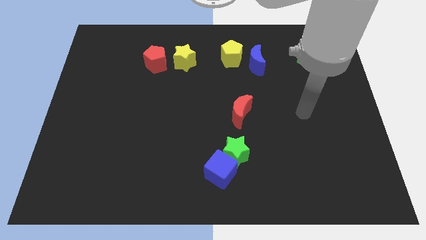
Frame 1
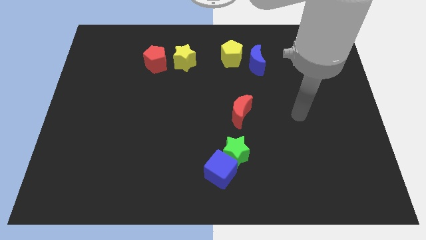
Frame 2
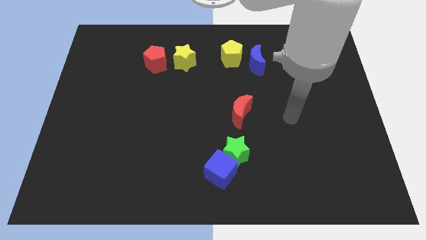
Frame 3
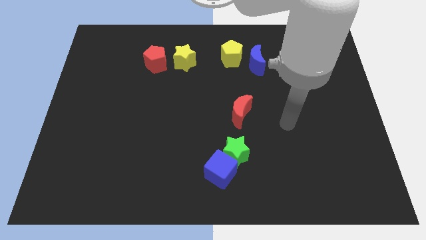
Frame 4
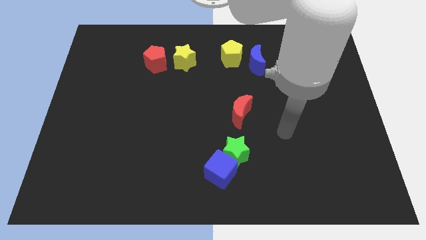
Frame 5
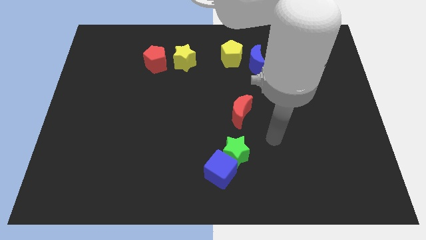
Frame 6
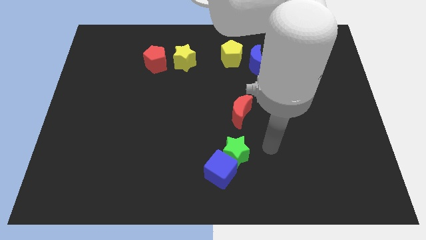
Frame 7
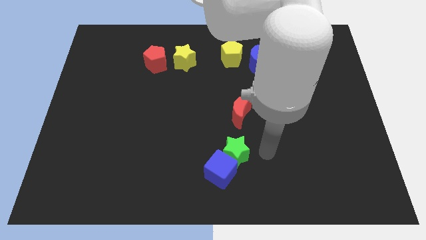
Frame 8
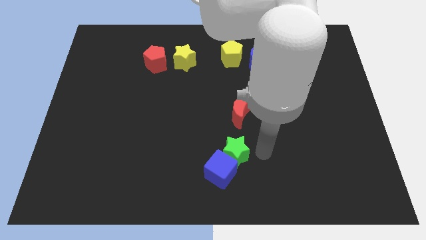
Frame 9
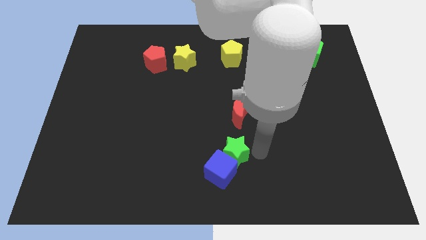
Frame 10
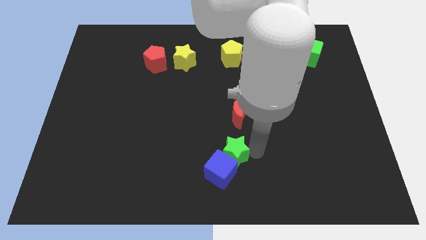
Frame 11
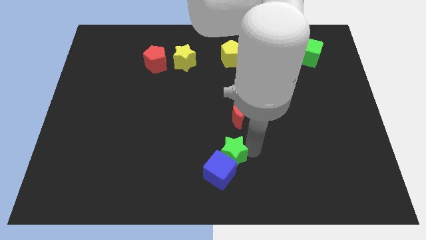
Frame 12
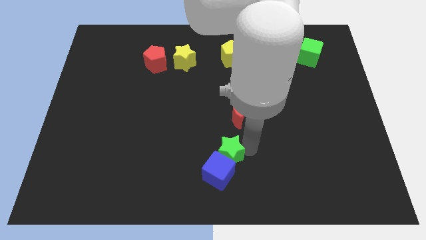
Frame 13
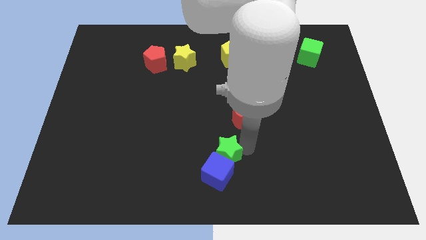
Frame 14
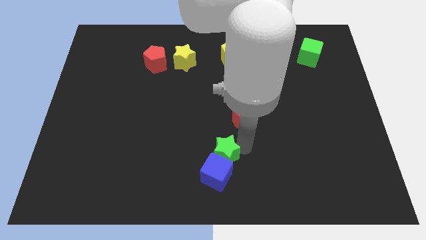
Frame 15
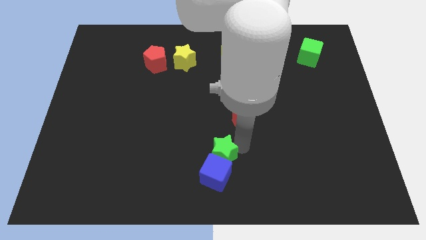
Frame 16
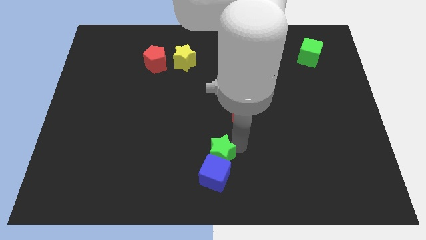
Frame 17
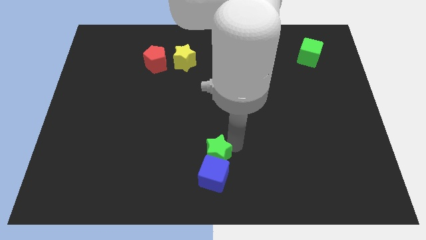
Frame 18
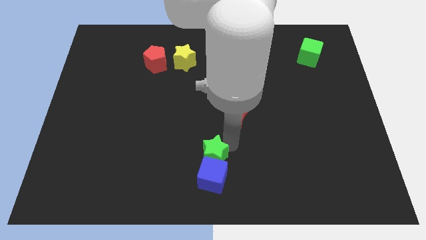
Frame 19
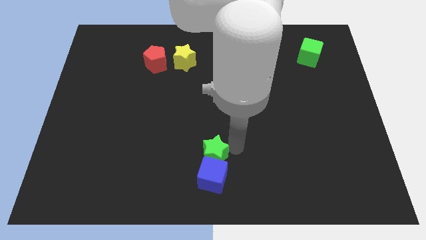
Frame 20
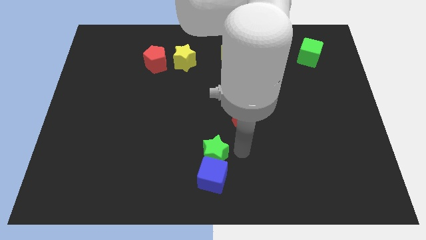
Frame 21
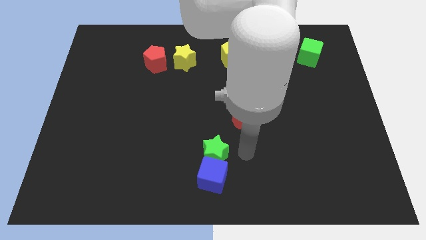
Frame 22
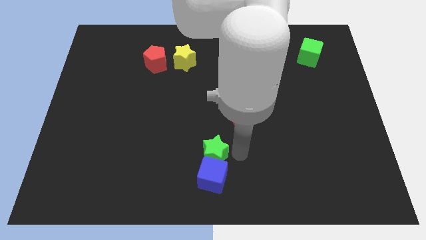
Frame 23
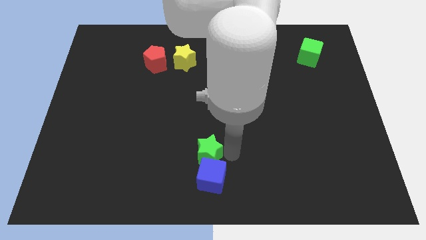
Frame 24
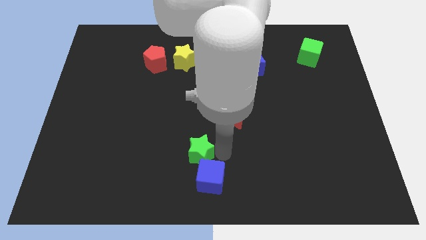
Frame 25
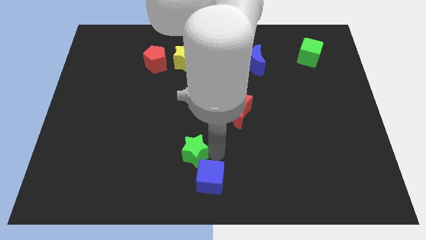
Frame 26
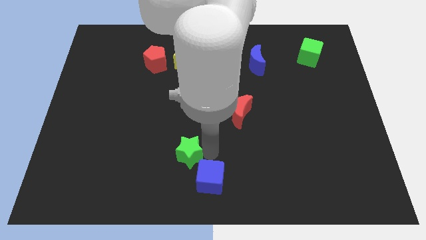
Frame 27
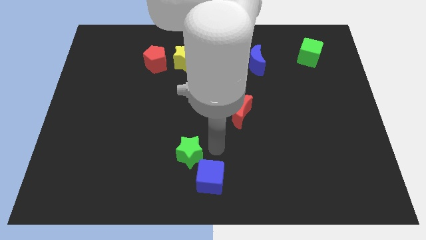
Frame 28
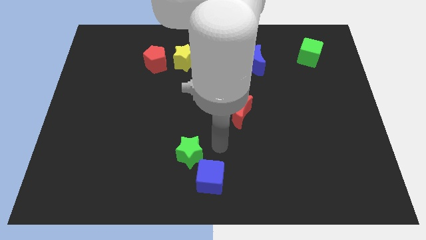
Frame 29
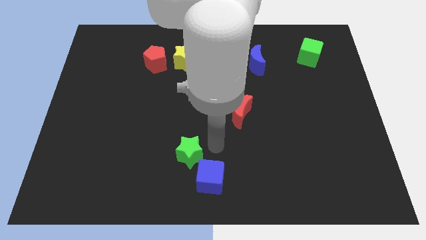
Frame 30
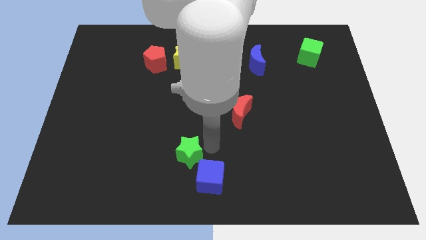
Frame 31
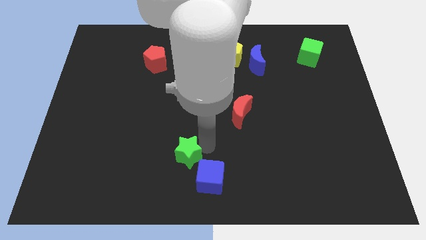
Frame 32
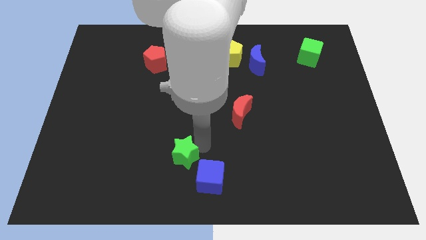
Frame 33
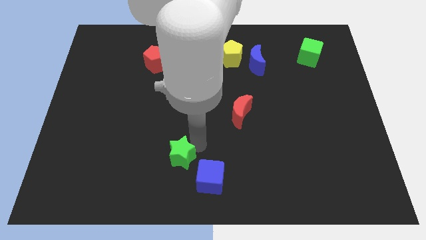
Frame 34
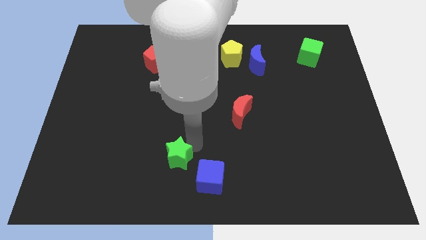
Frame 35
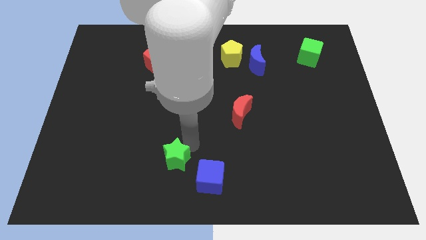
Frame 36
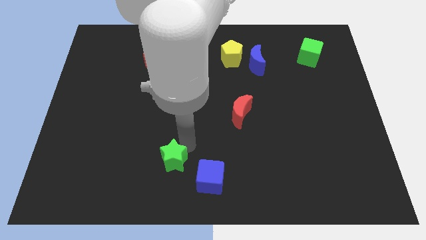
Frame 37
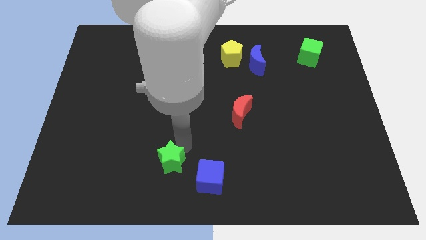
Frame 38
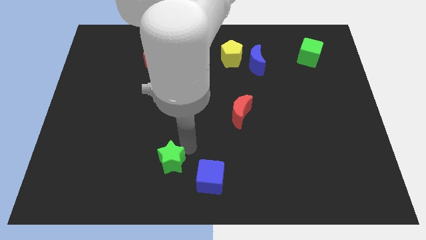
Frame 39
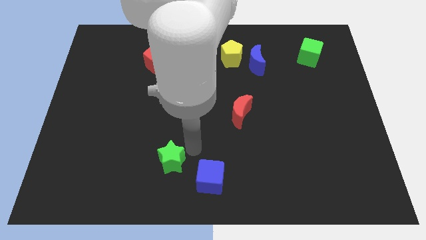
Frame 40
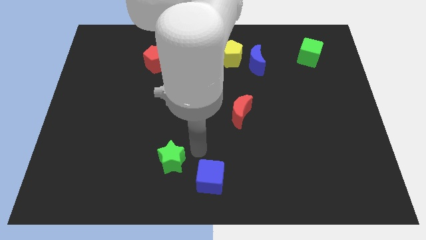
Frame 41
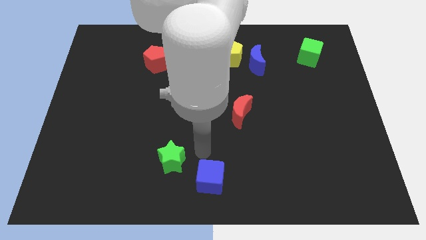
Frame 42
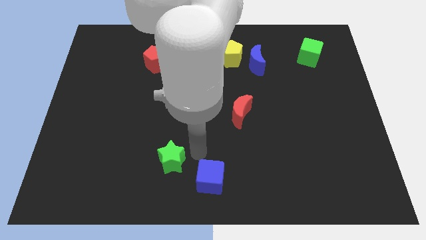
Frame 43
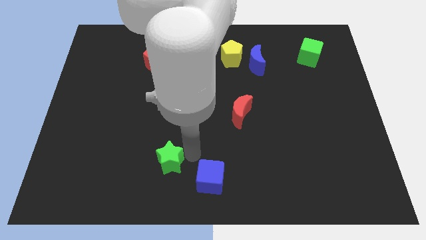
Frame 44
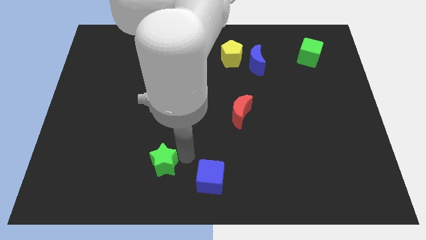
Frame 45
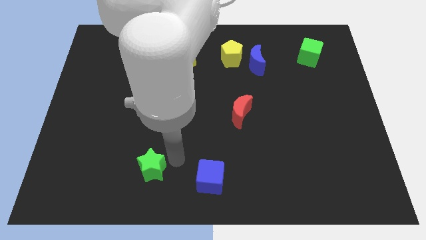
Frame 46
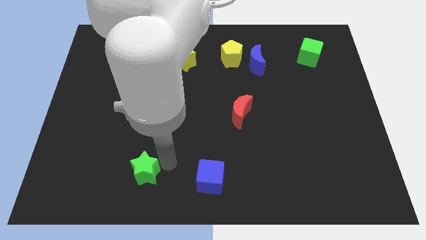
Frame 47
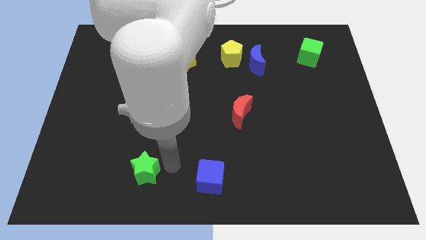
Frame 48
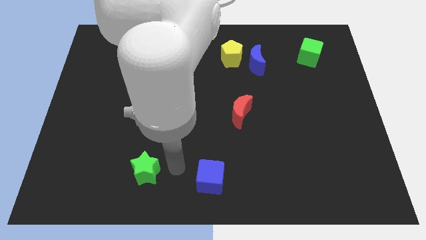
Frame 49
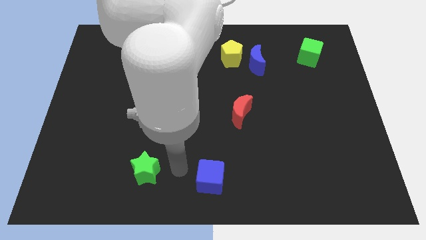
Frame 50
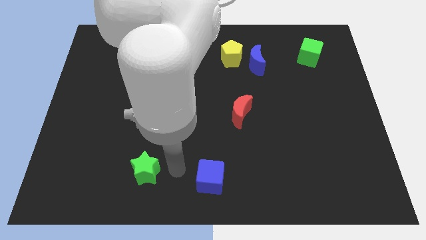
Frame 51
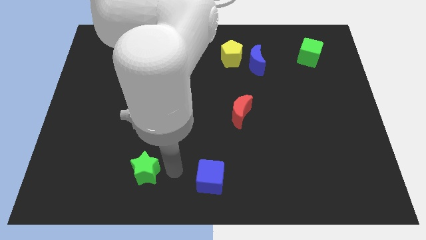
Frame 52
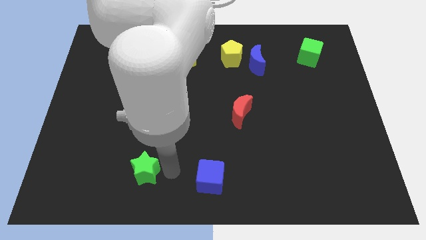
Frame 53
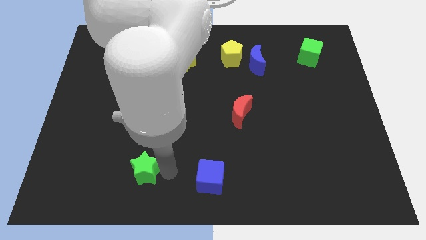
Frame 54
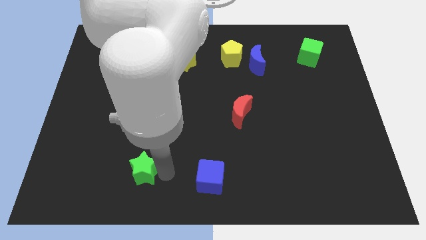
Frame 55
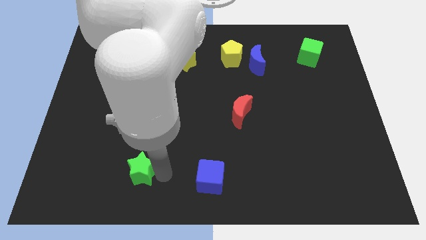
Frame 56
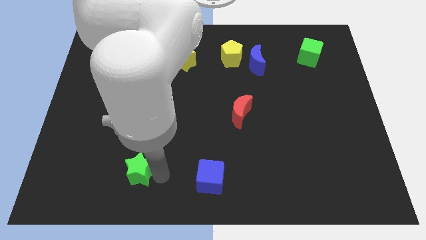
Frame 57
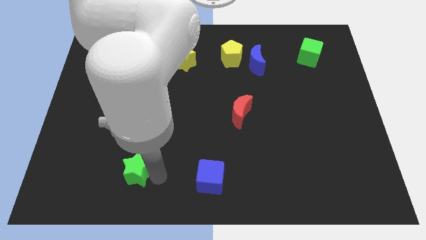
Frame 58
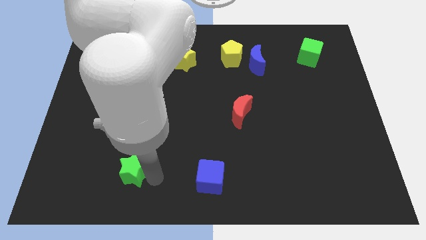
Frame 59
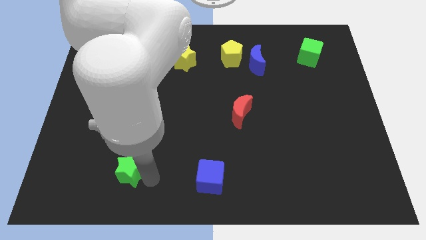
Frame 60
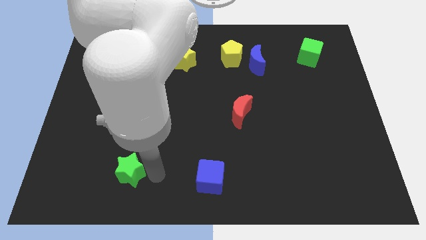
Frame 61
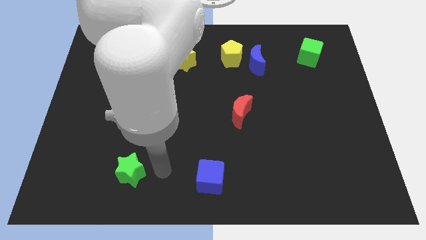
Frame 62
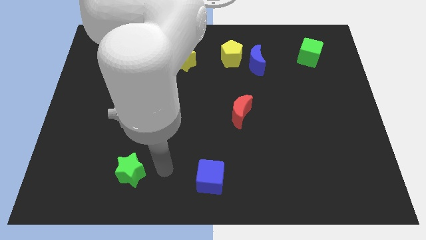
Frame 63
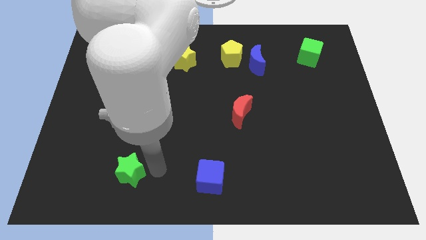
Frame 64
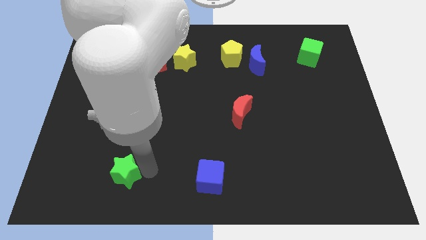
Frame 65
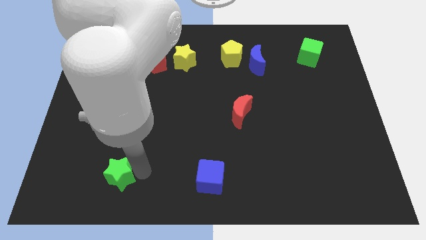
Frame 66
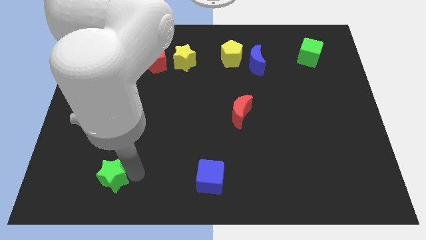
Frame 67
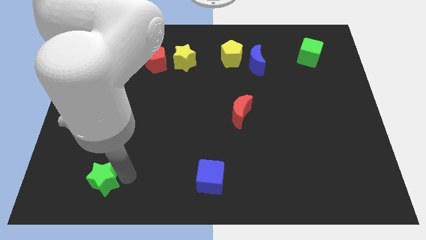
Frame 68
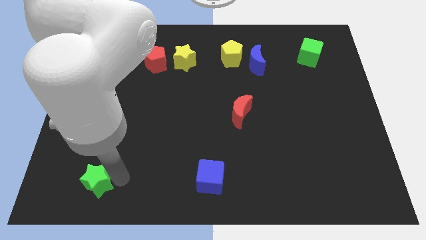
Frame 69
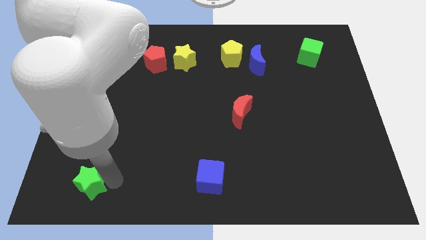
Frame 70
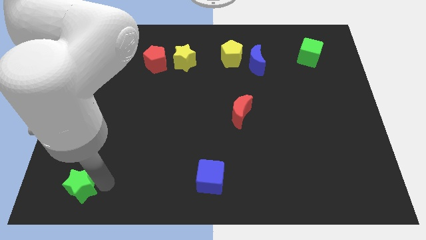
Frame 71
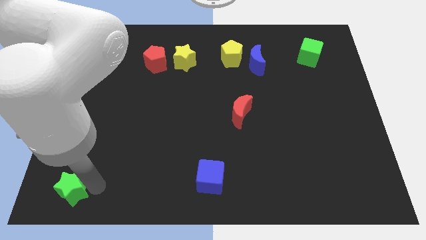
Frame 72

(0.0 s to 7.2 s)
push the green star to the bottom left corner

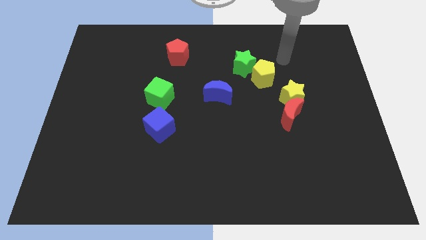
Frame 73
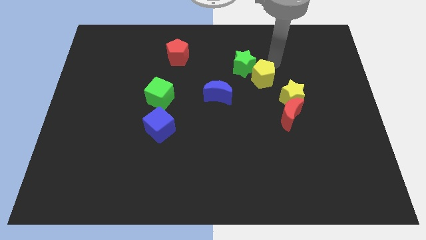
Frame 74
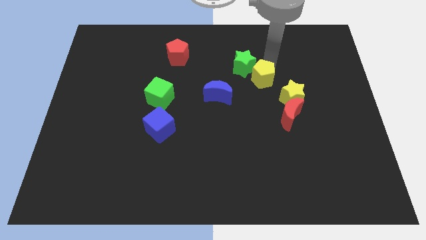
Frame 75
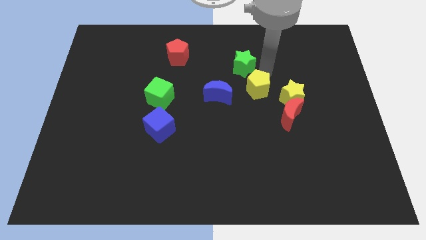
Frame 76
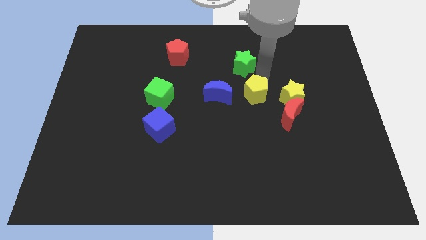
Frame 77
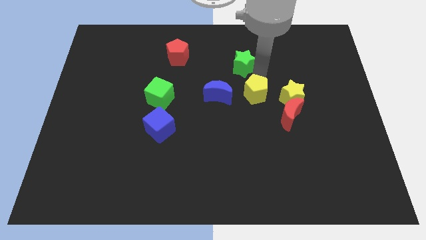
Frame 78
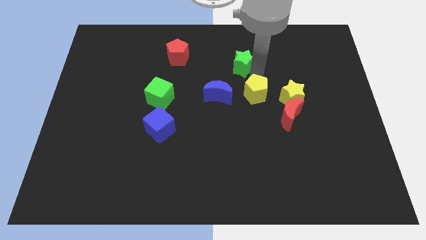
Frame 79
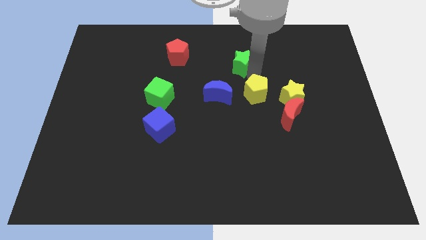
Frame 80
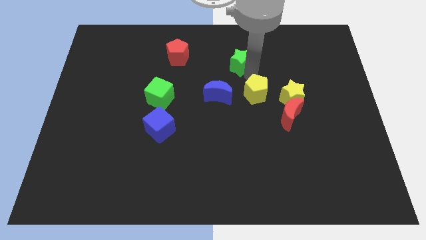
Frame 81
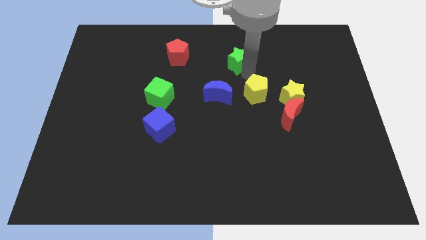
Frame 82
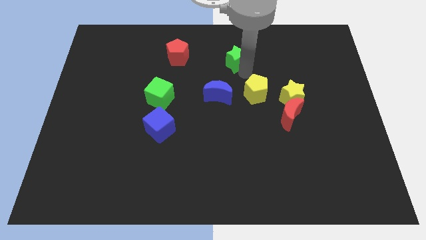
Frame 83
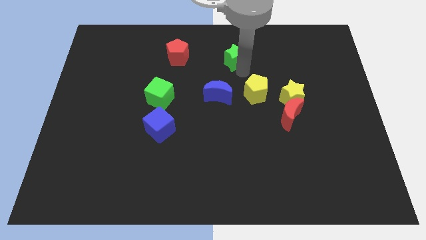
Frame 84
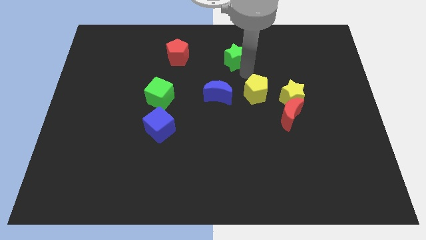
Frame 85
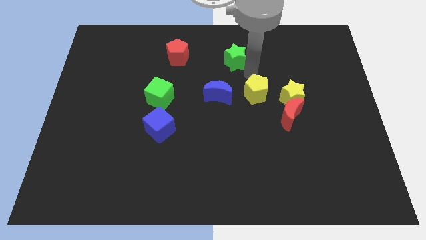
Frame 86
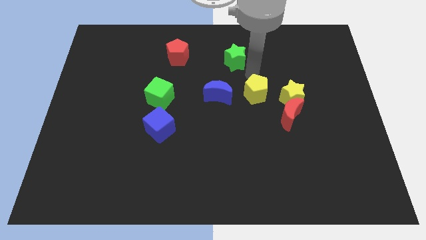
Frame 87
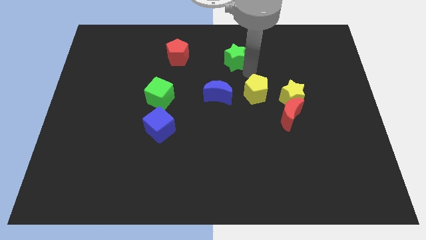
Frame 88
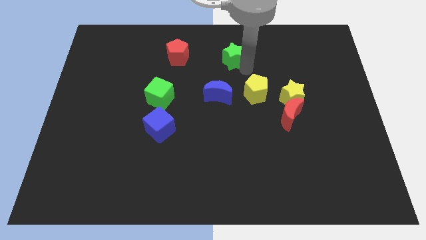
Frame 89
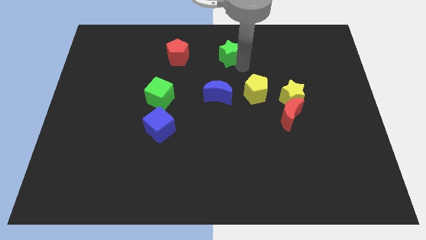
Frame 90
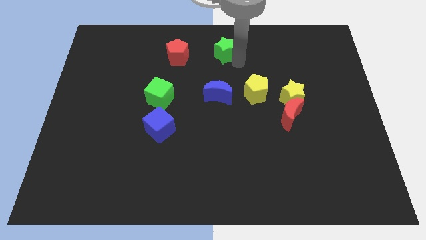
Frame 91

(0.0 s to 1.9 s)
put the green star to the towards your base
